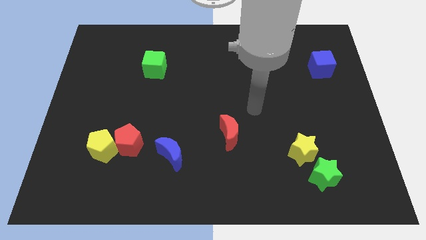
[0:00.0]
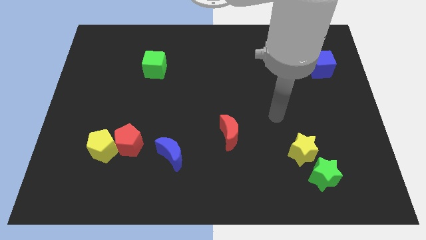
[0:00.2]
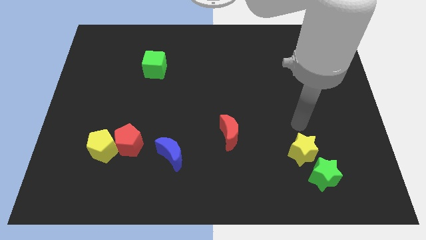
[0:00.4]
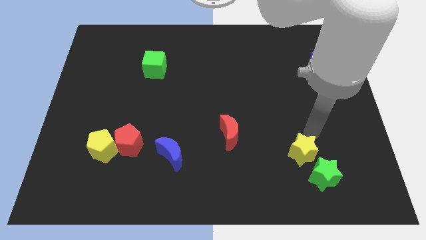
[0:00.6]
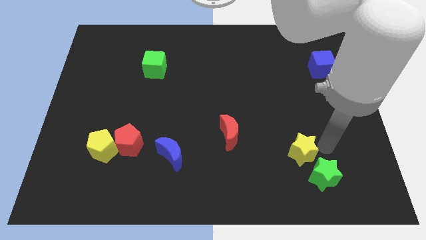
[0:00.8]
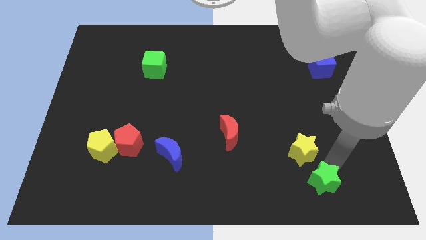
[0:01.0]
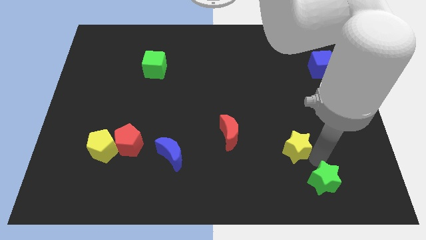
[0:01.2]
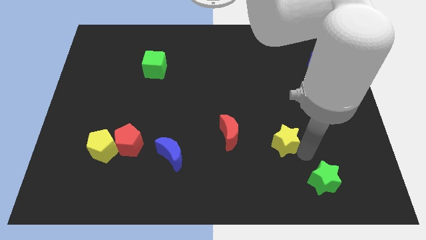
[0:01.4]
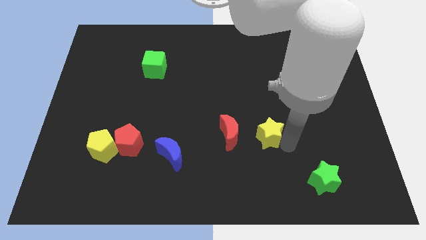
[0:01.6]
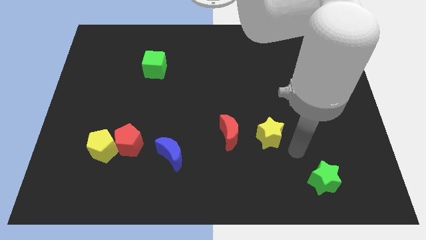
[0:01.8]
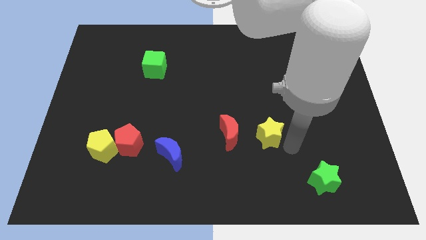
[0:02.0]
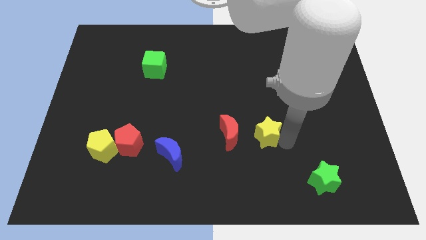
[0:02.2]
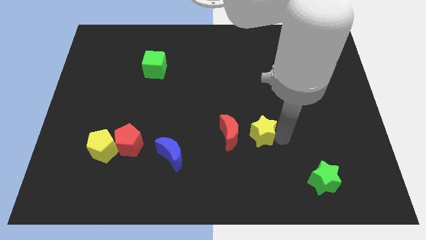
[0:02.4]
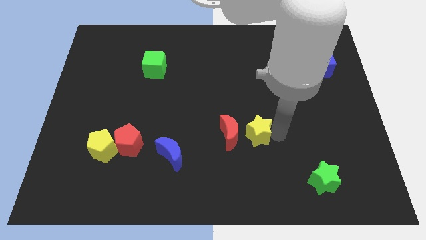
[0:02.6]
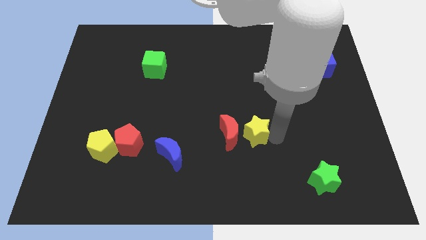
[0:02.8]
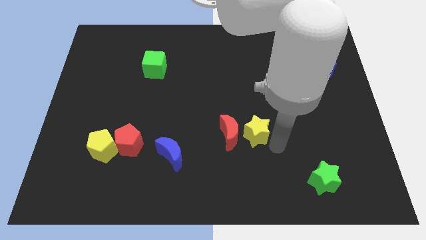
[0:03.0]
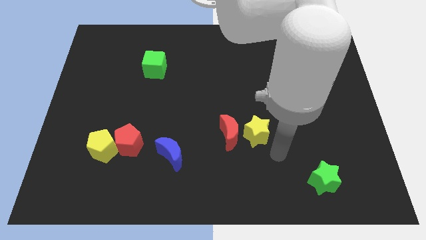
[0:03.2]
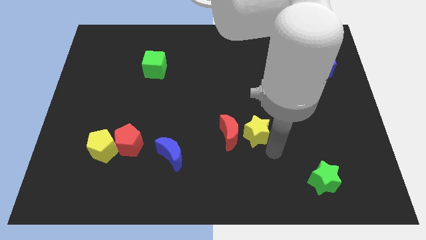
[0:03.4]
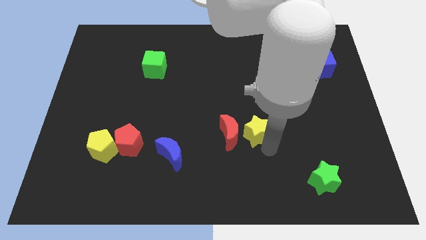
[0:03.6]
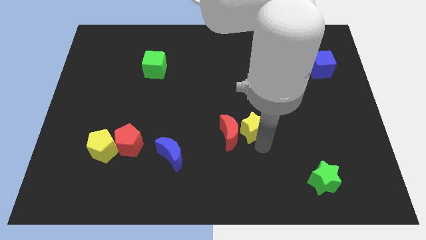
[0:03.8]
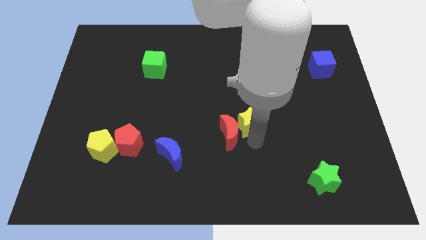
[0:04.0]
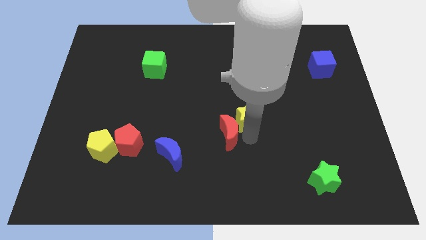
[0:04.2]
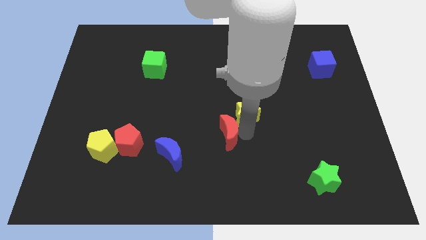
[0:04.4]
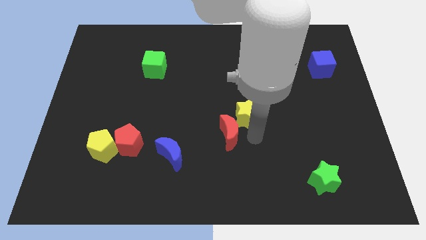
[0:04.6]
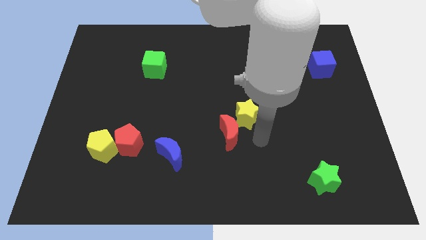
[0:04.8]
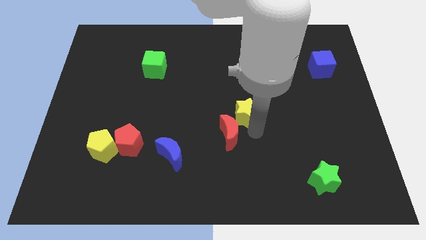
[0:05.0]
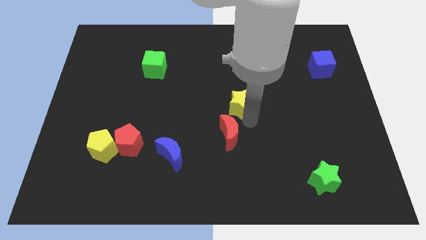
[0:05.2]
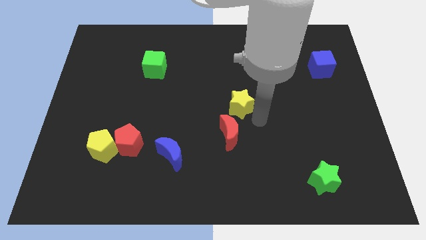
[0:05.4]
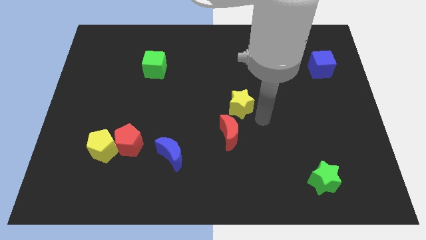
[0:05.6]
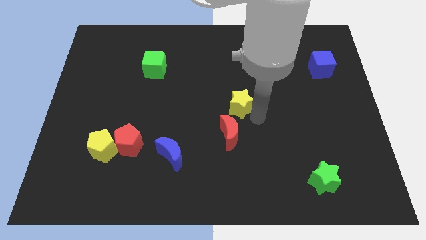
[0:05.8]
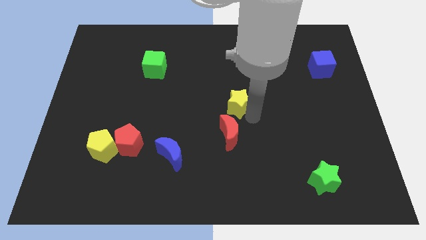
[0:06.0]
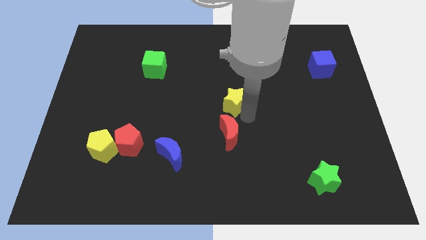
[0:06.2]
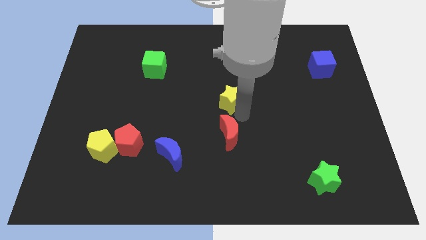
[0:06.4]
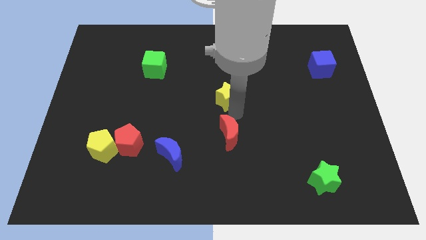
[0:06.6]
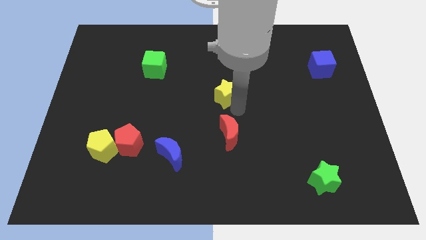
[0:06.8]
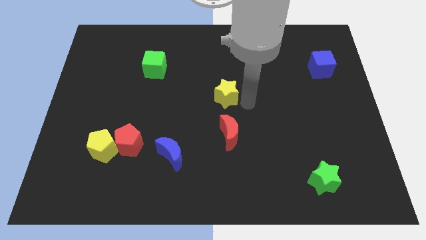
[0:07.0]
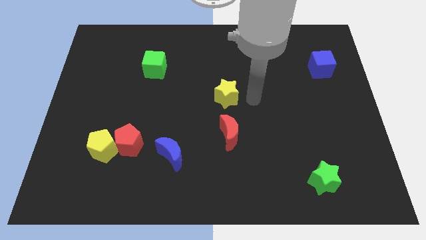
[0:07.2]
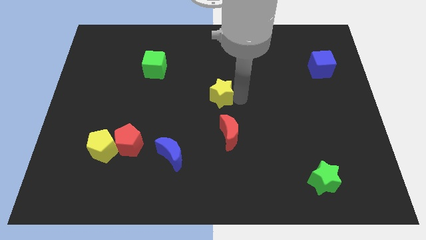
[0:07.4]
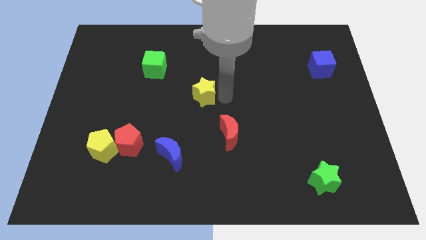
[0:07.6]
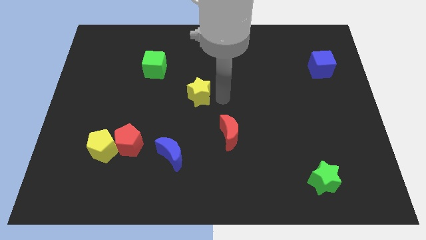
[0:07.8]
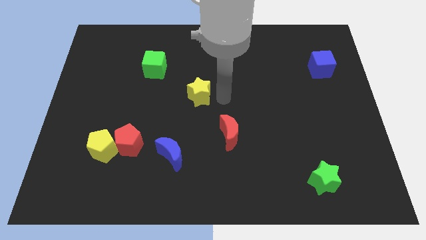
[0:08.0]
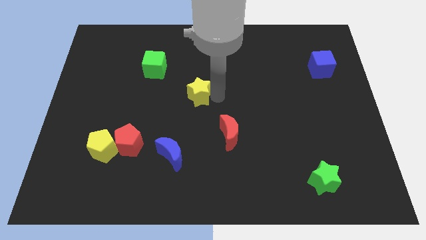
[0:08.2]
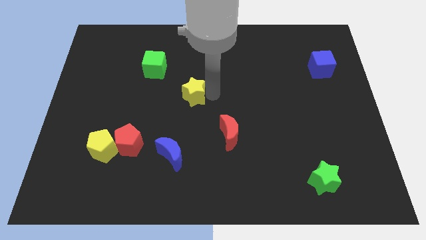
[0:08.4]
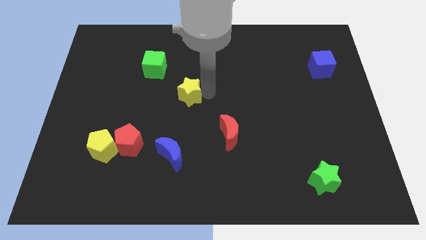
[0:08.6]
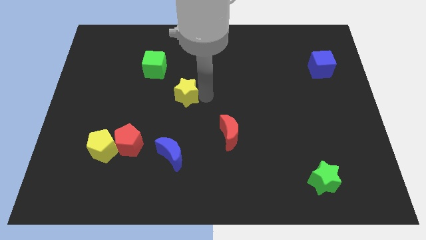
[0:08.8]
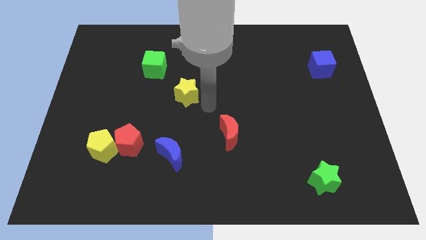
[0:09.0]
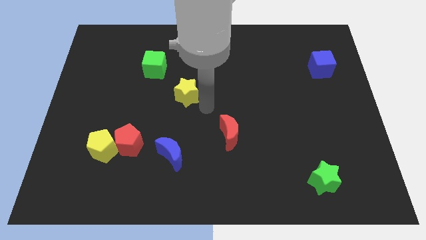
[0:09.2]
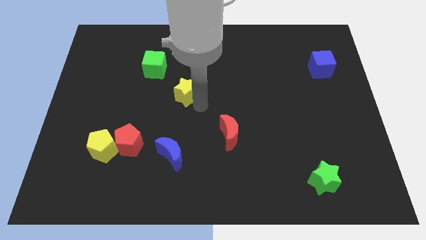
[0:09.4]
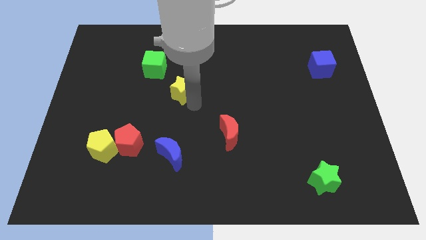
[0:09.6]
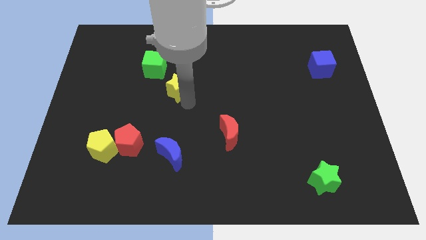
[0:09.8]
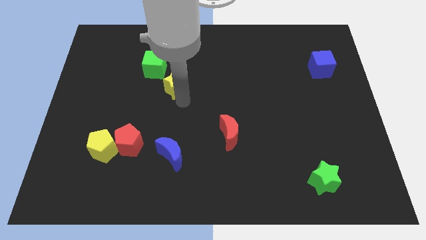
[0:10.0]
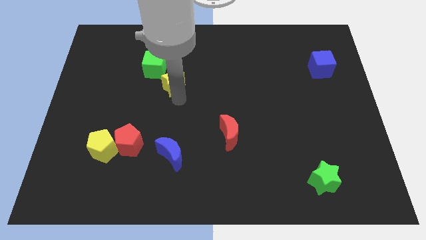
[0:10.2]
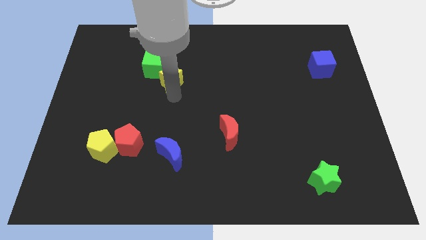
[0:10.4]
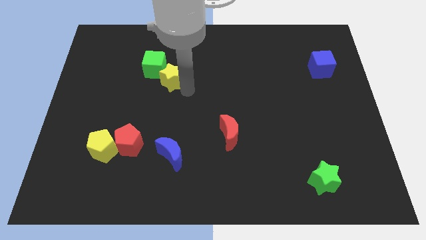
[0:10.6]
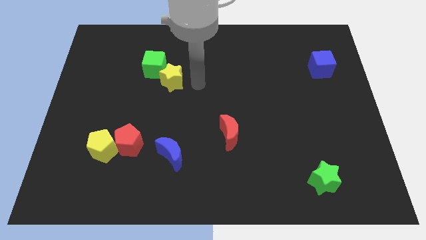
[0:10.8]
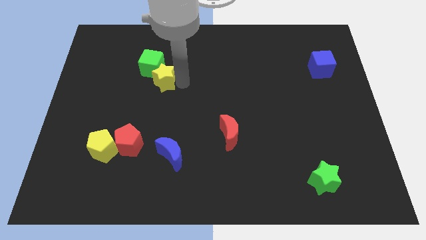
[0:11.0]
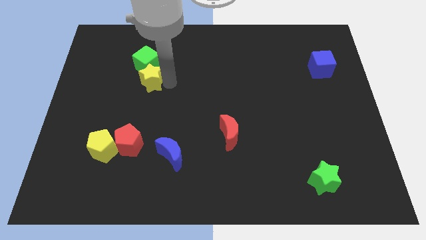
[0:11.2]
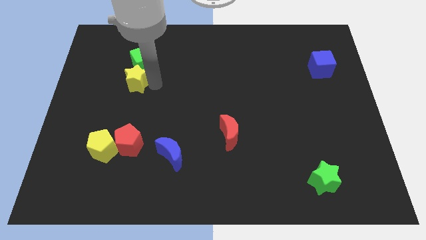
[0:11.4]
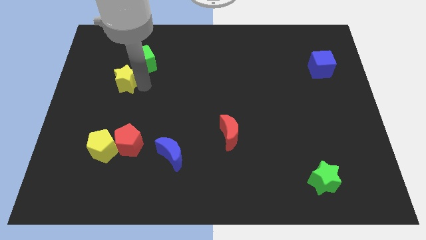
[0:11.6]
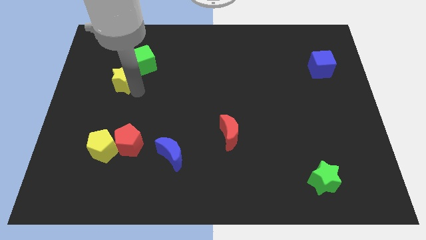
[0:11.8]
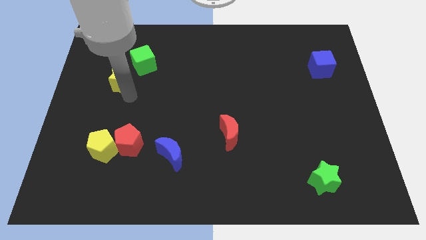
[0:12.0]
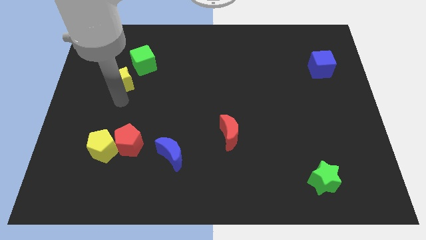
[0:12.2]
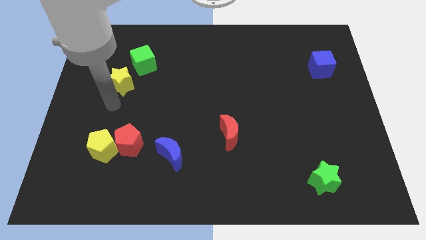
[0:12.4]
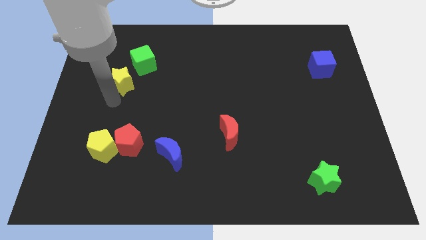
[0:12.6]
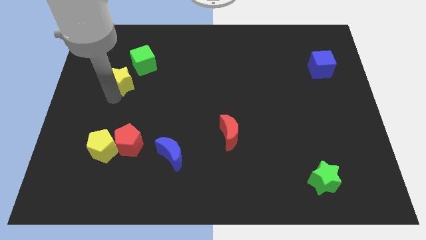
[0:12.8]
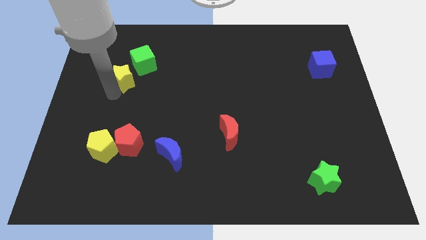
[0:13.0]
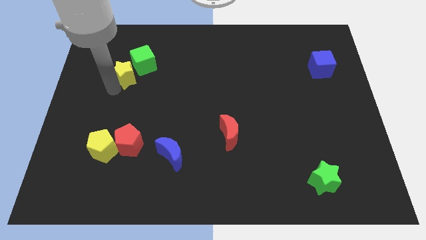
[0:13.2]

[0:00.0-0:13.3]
put the yellow star left of the green cube

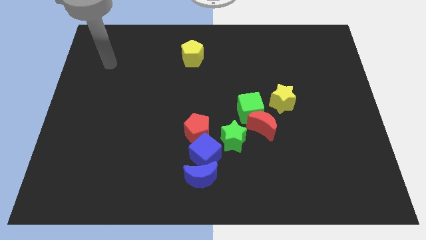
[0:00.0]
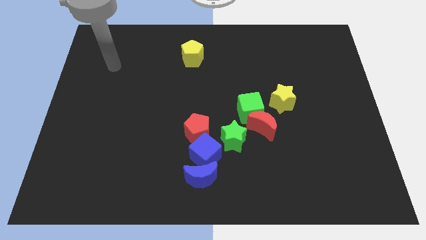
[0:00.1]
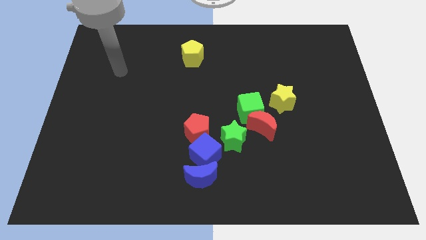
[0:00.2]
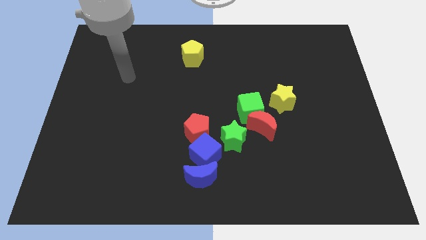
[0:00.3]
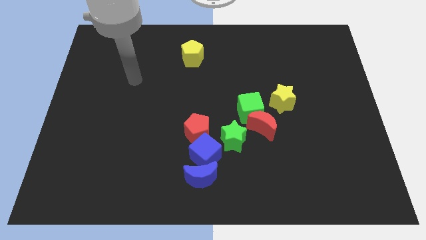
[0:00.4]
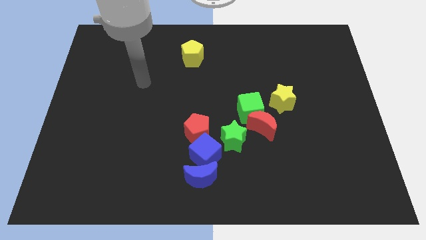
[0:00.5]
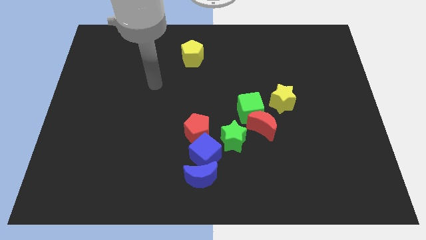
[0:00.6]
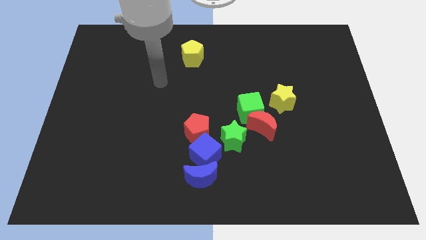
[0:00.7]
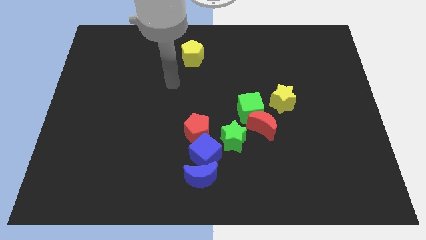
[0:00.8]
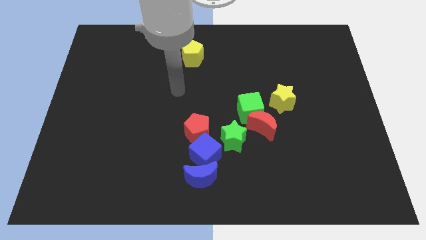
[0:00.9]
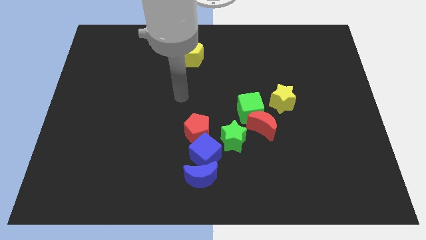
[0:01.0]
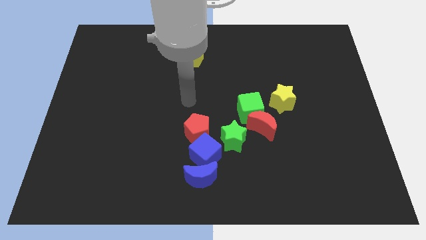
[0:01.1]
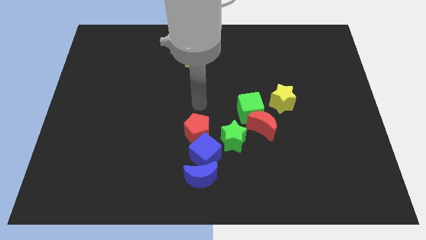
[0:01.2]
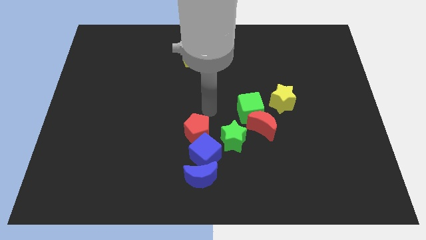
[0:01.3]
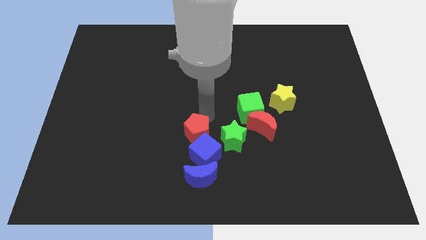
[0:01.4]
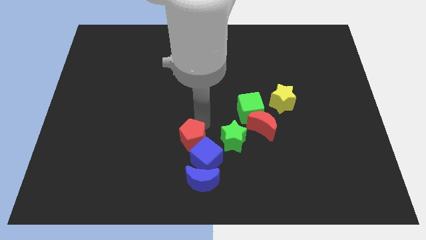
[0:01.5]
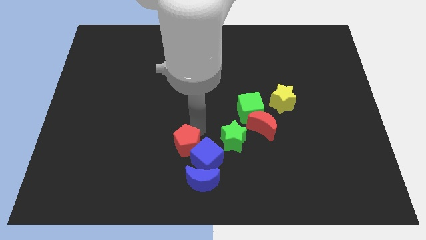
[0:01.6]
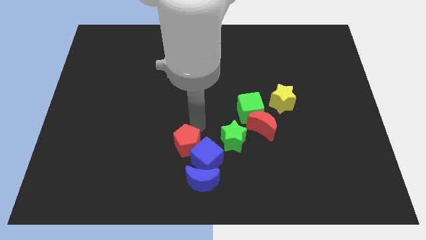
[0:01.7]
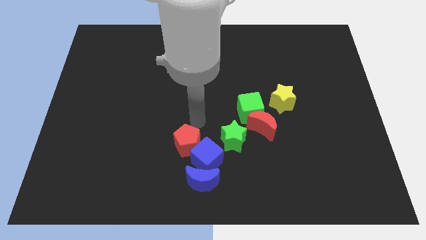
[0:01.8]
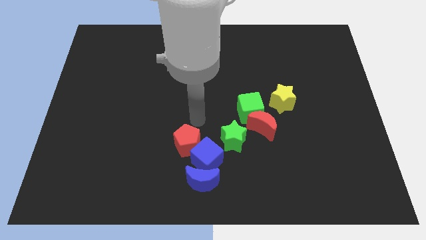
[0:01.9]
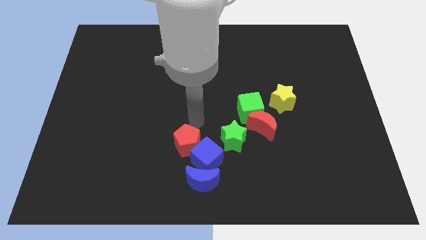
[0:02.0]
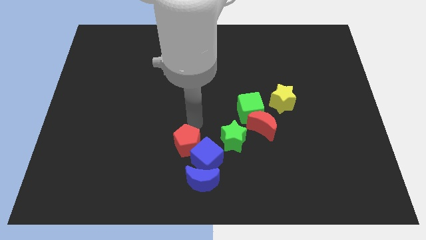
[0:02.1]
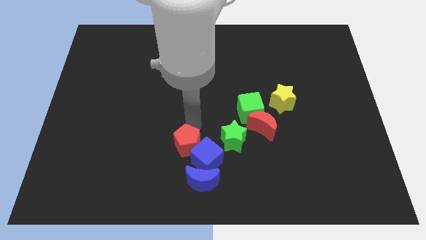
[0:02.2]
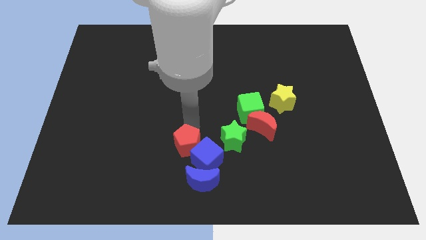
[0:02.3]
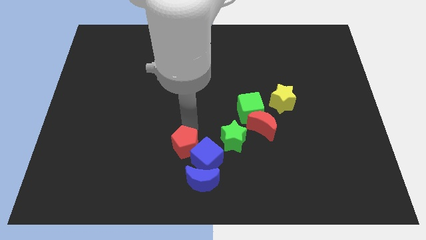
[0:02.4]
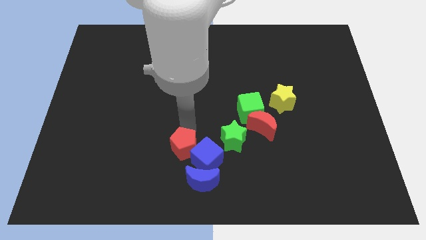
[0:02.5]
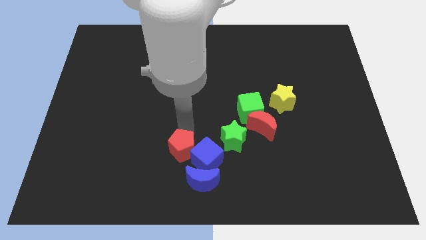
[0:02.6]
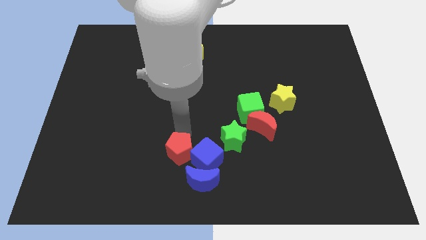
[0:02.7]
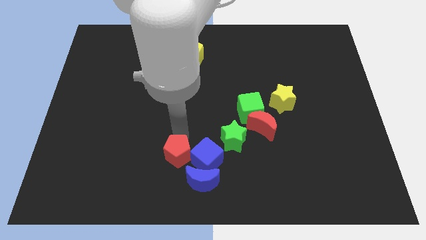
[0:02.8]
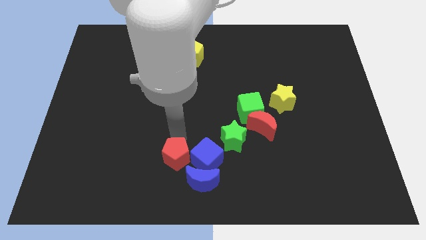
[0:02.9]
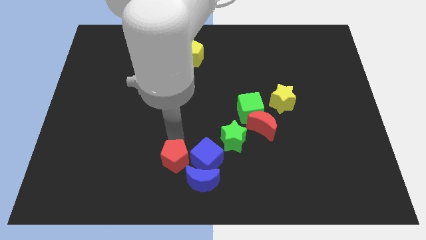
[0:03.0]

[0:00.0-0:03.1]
slide the red pentagon to the bottom left of the blue cube
